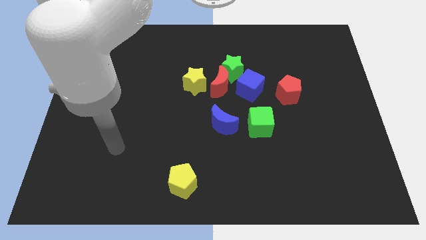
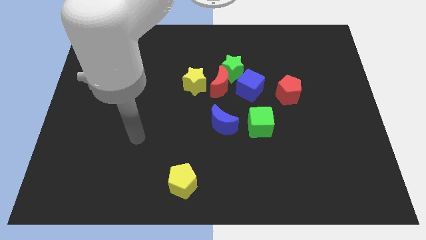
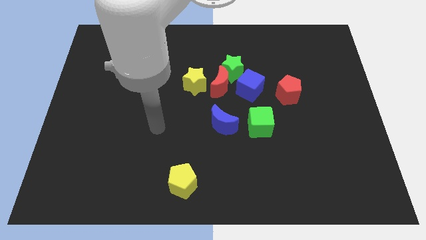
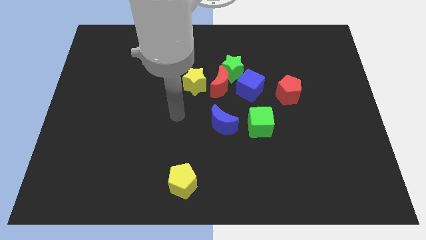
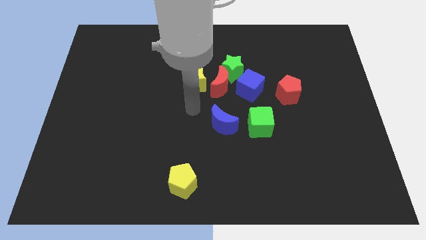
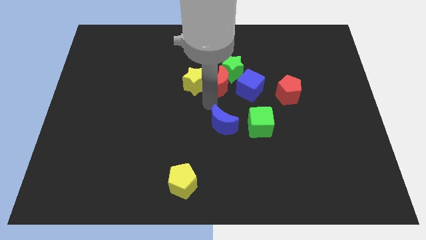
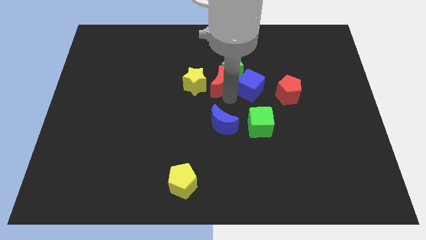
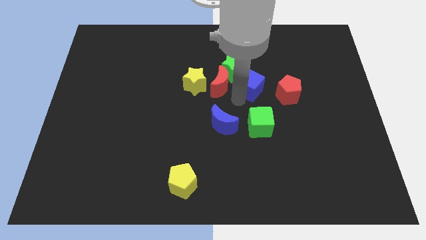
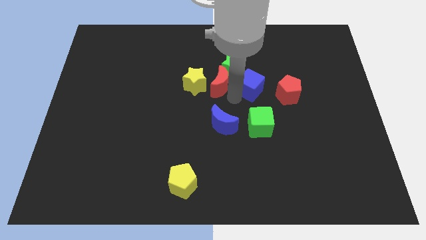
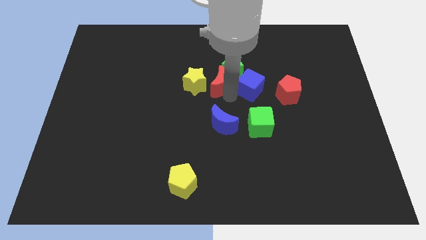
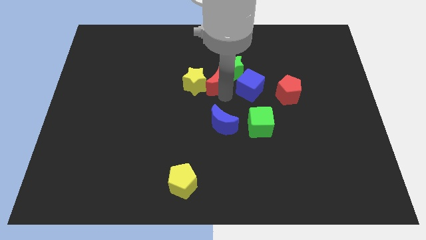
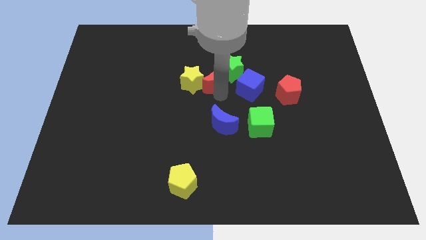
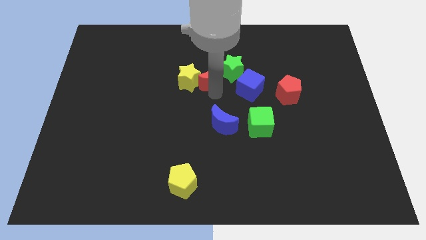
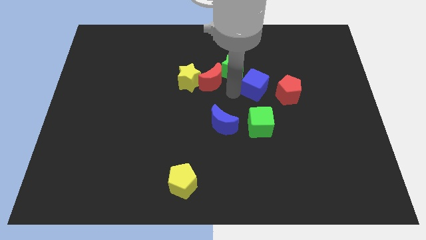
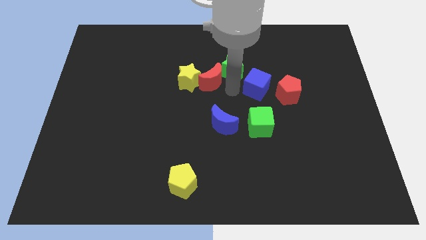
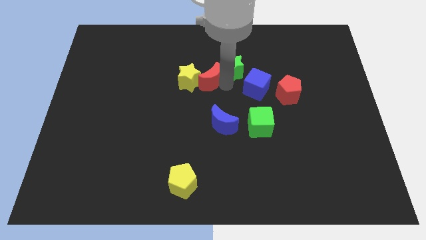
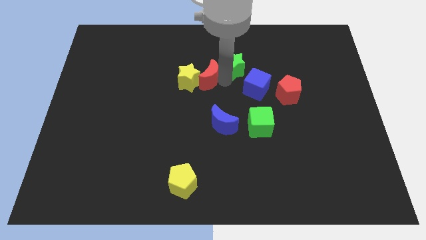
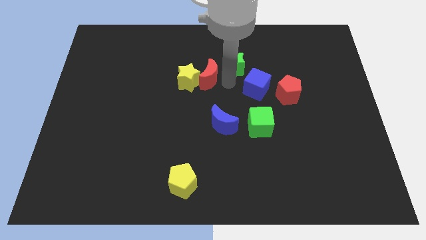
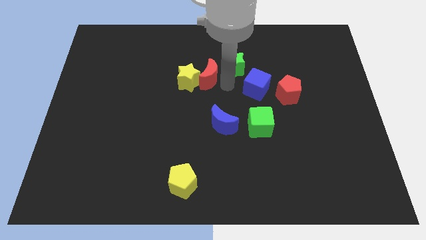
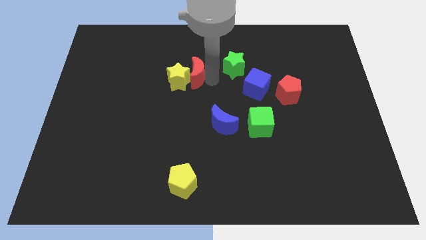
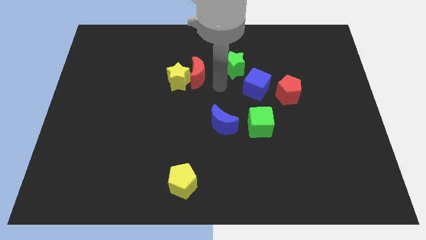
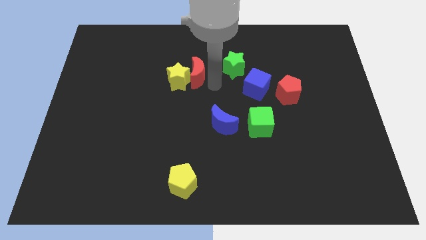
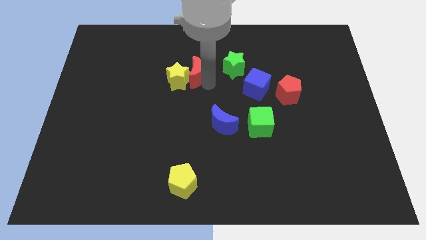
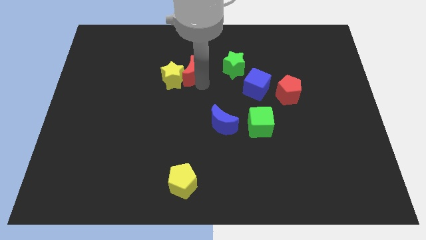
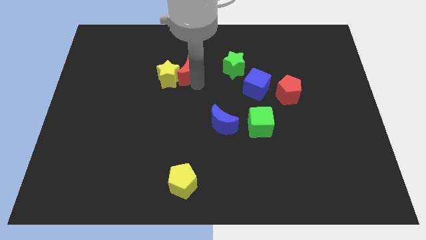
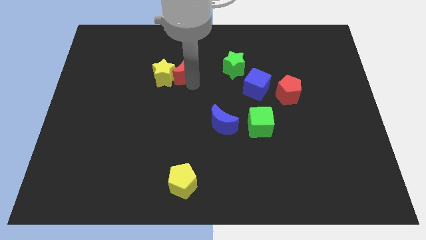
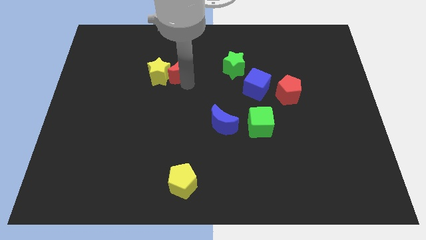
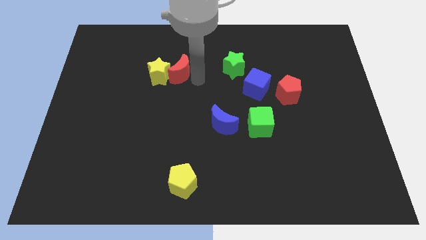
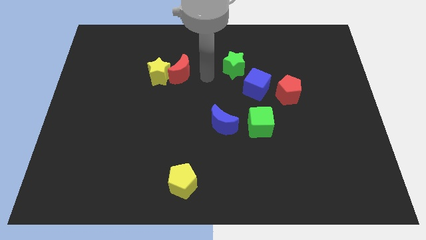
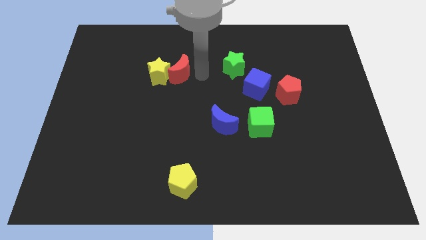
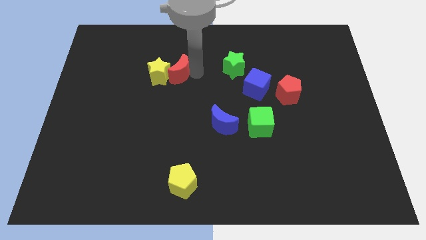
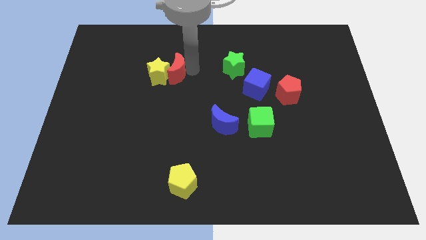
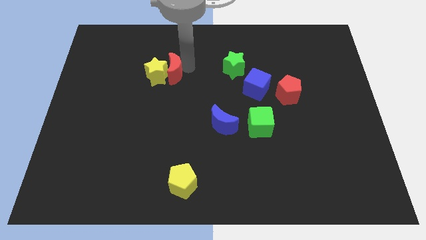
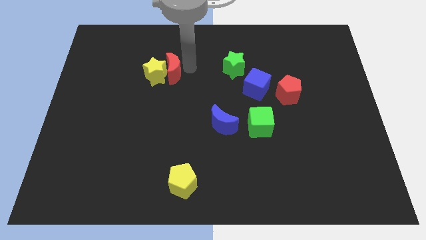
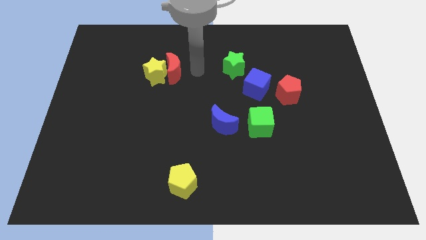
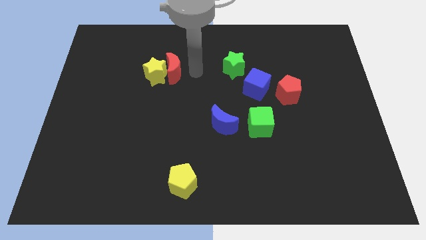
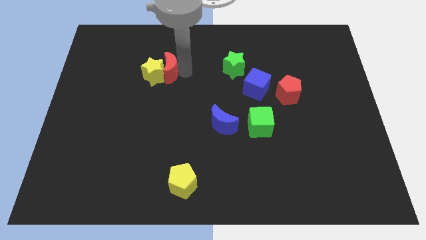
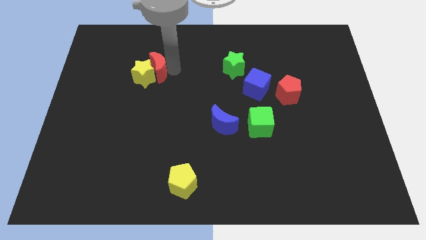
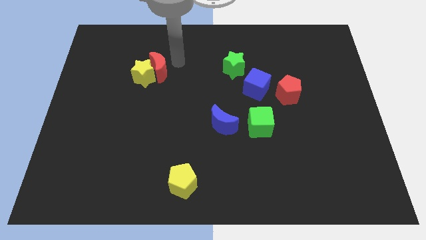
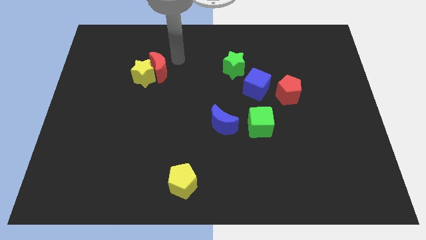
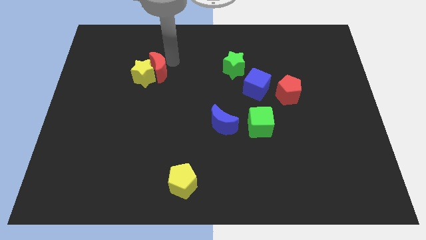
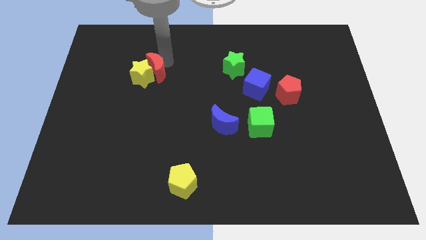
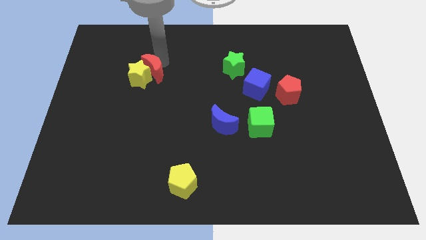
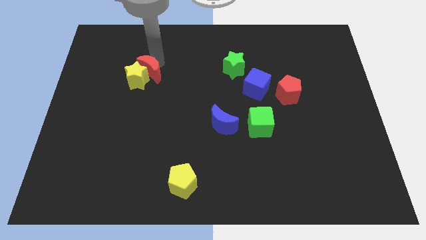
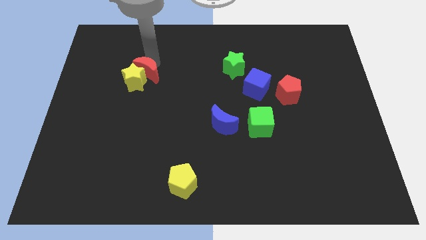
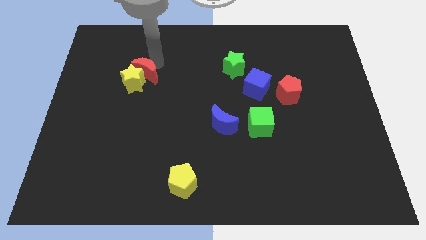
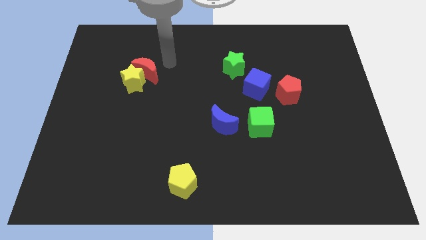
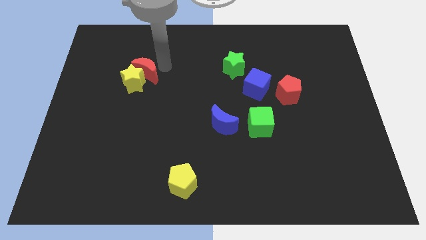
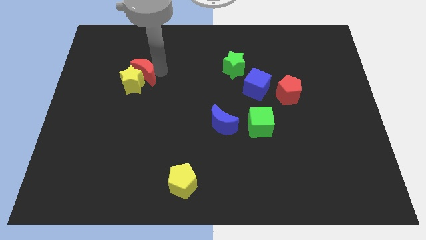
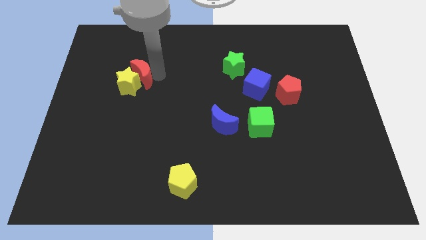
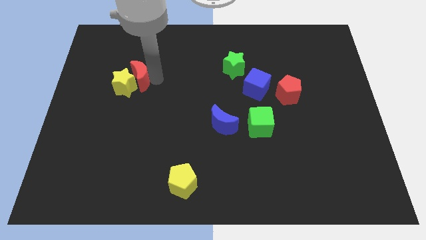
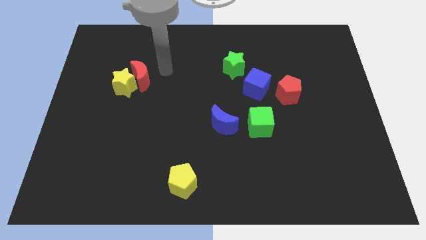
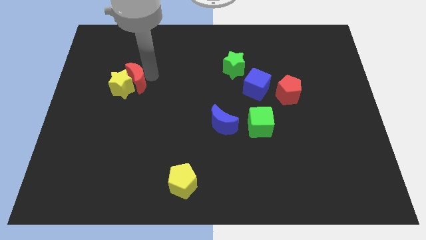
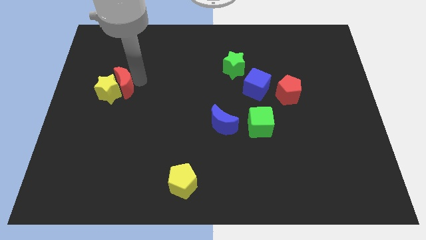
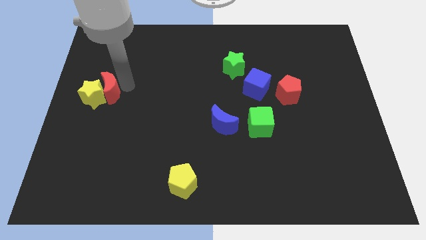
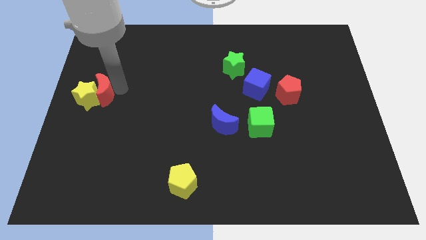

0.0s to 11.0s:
move the red moon to the left side

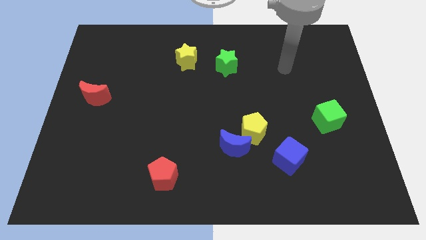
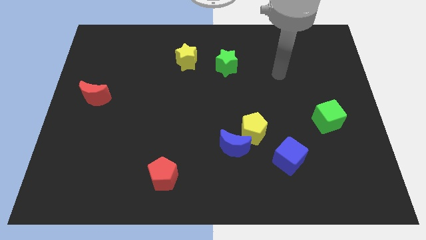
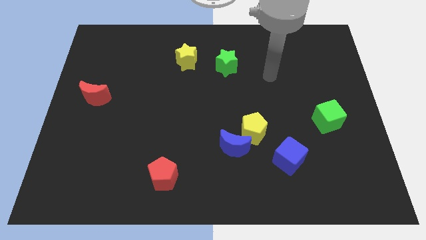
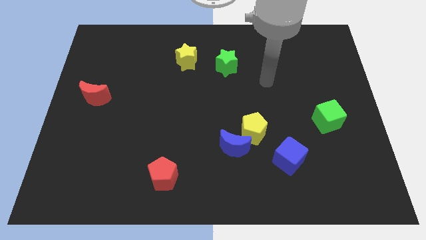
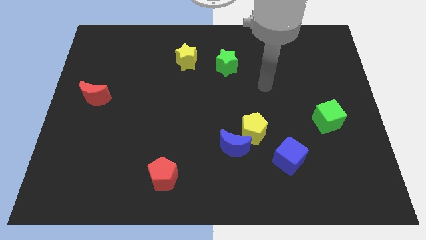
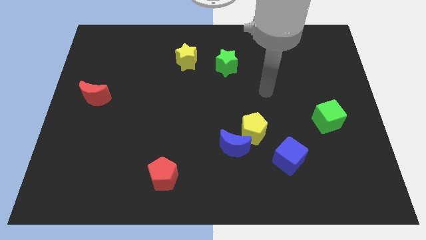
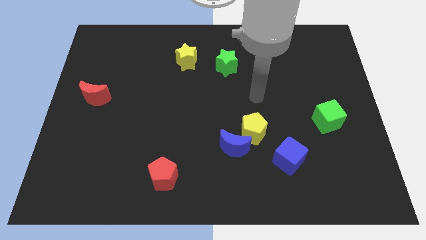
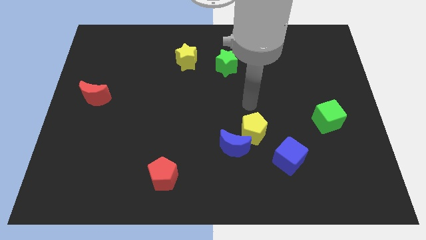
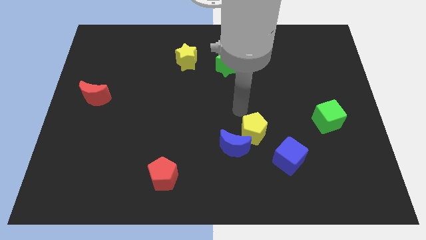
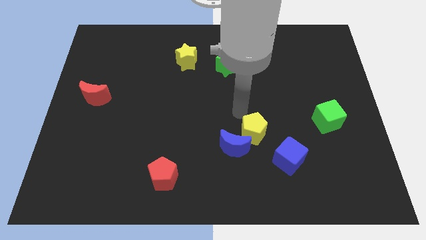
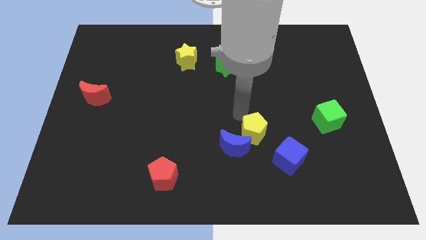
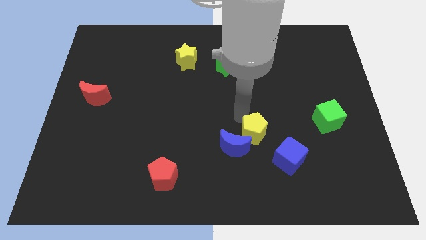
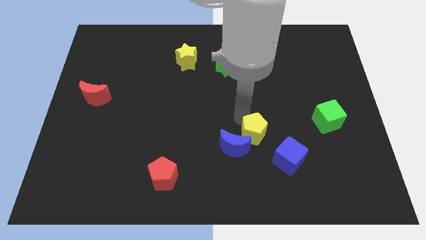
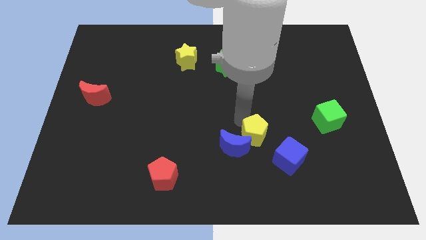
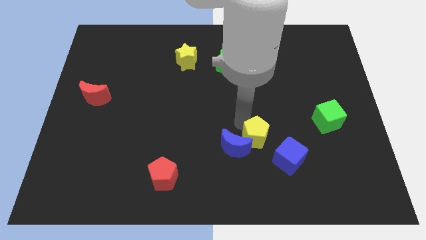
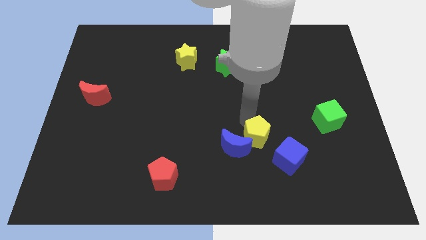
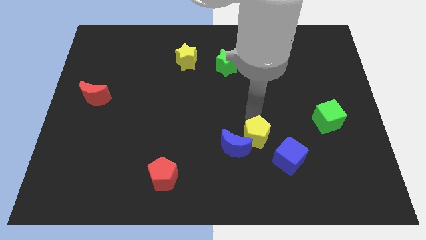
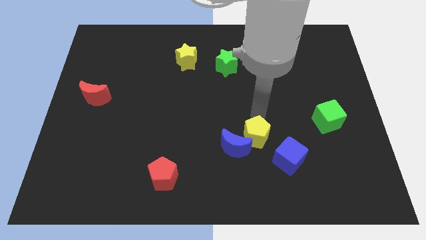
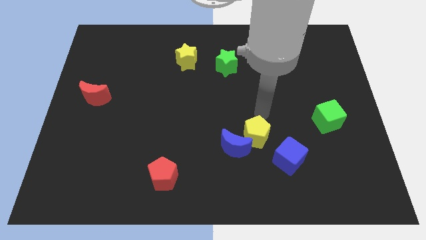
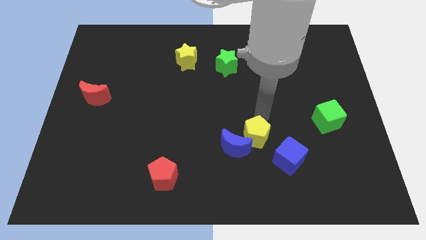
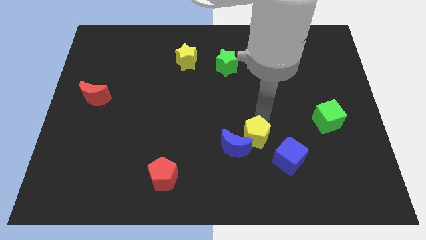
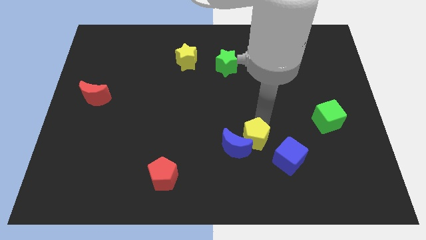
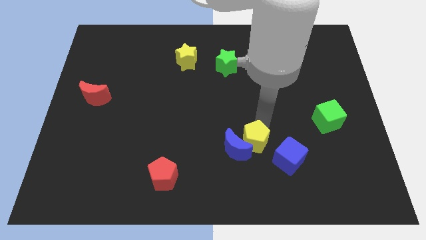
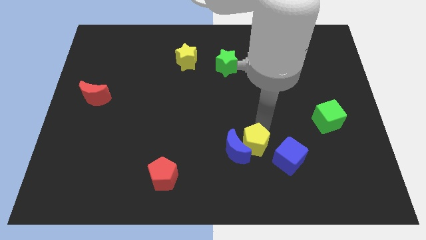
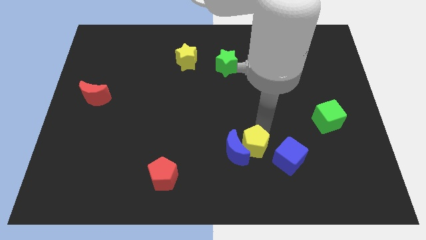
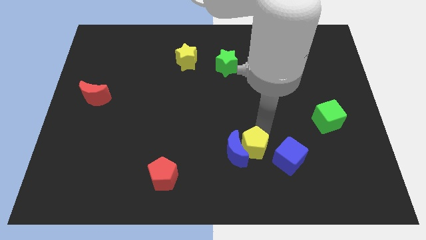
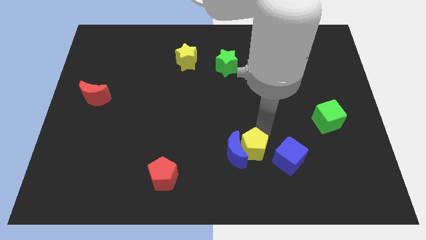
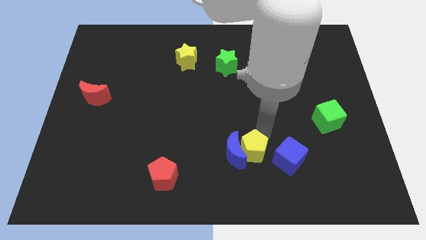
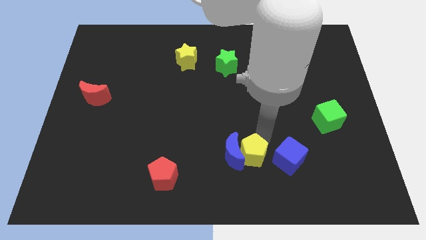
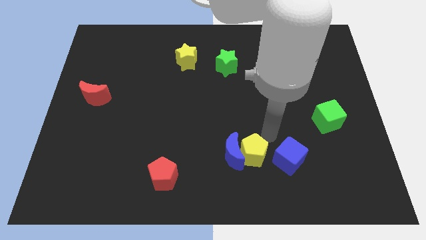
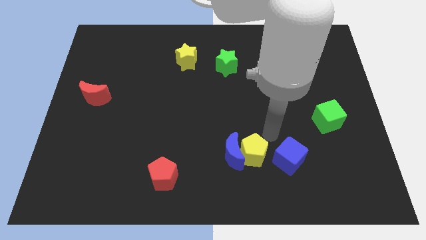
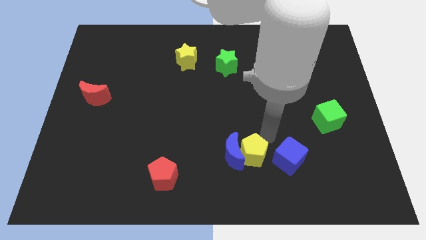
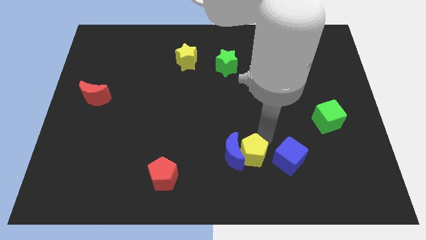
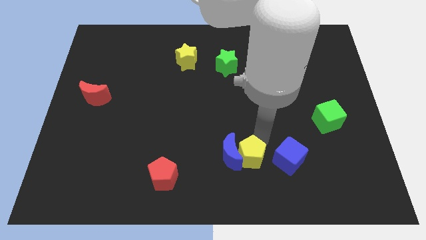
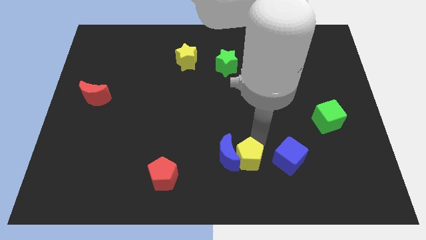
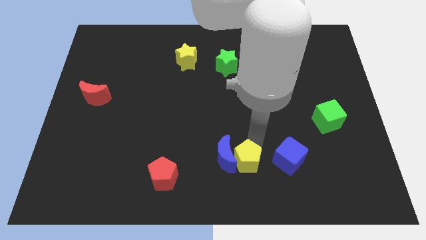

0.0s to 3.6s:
push the yellow pentagon to the bottom side
